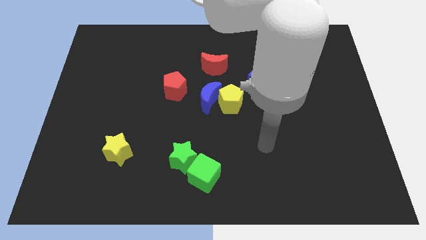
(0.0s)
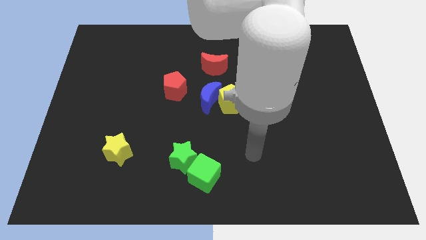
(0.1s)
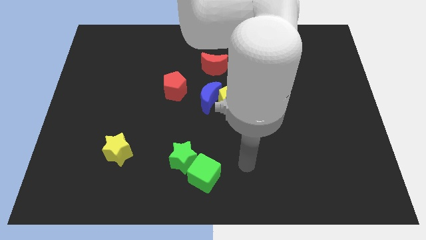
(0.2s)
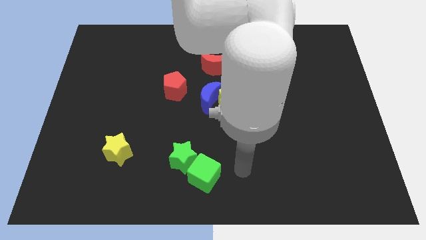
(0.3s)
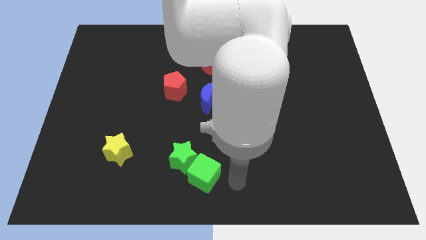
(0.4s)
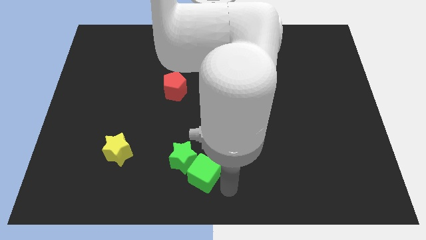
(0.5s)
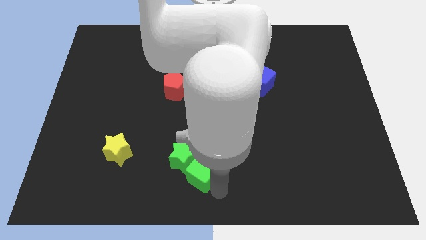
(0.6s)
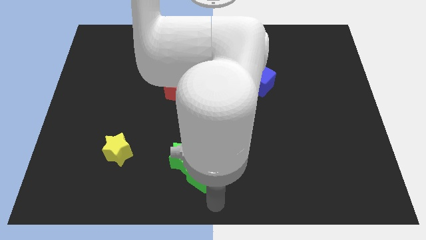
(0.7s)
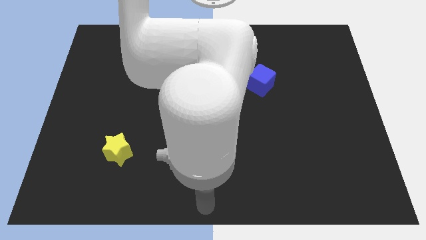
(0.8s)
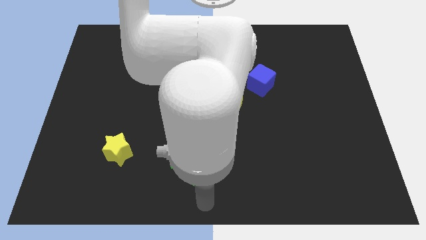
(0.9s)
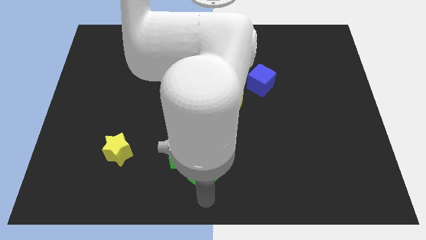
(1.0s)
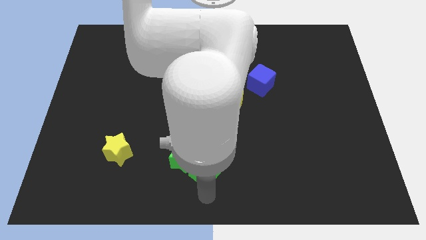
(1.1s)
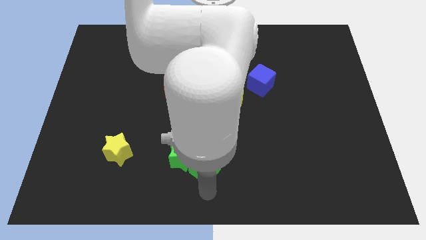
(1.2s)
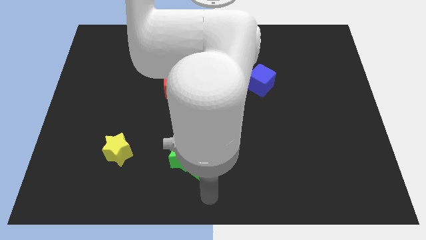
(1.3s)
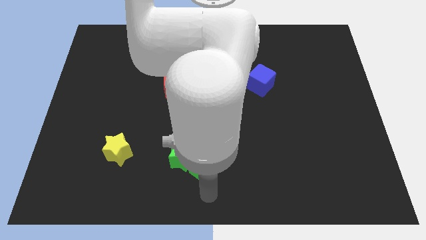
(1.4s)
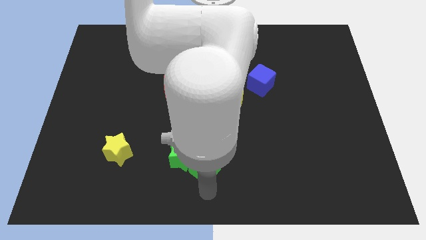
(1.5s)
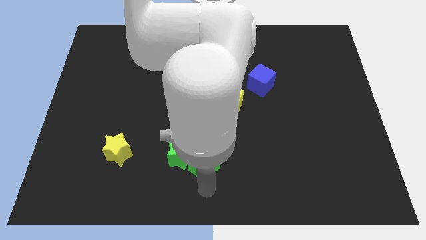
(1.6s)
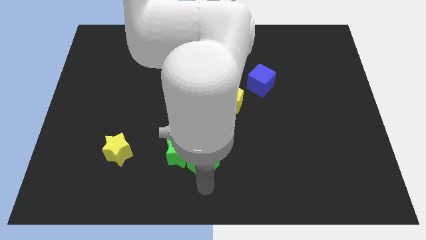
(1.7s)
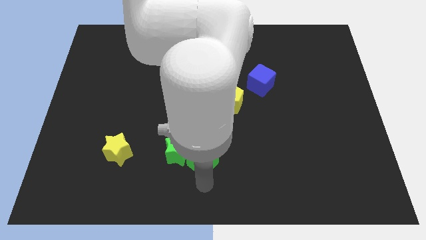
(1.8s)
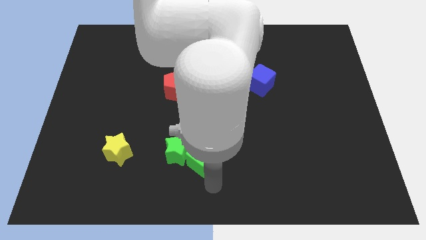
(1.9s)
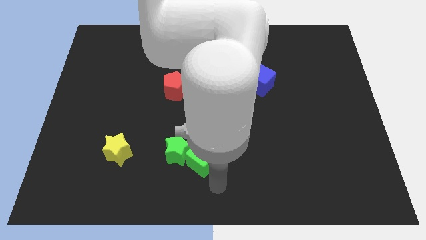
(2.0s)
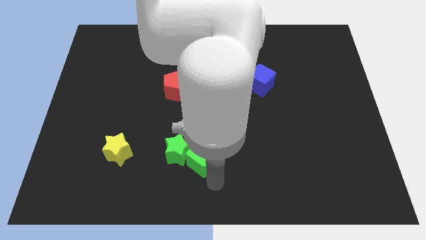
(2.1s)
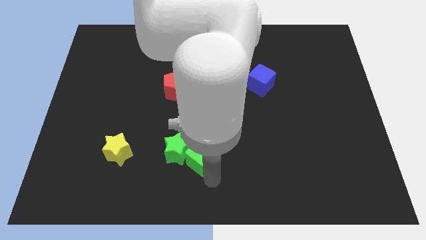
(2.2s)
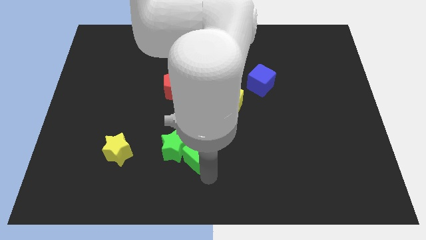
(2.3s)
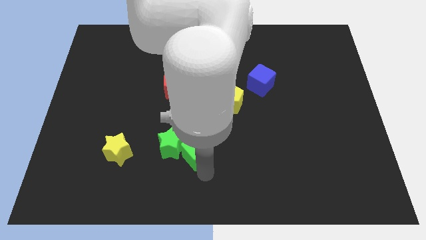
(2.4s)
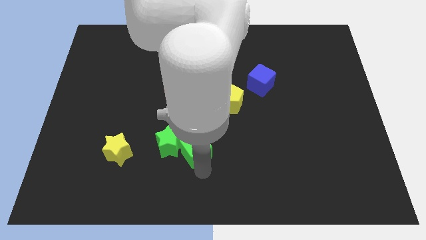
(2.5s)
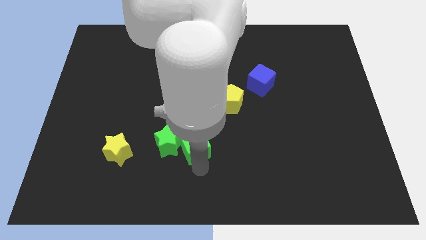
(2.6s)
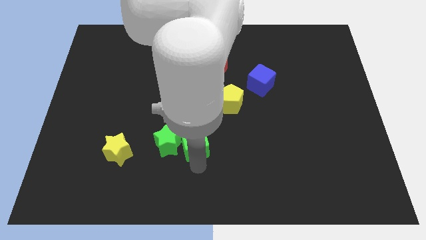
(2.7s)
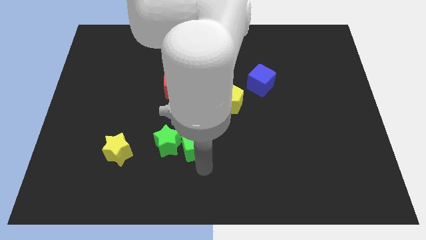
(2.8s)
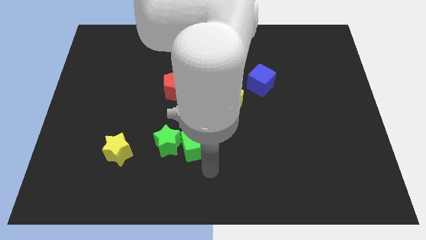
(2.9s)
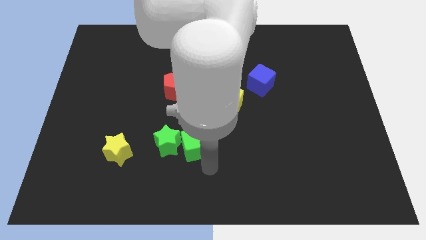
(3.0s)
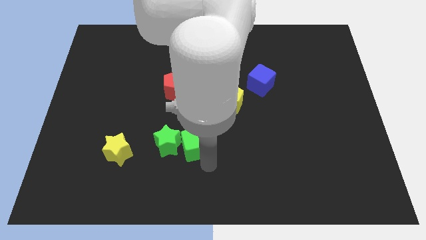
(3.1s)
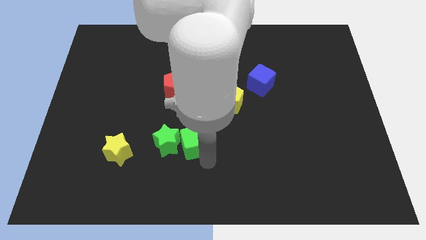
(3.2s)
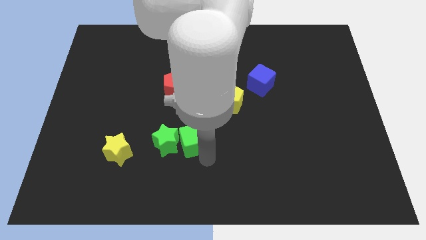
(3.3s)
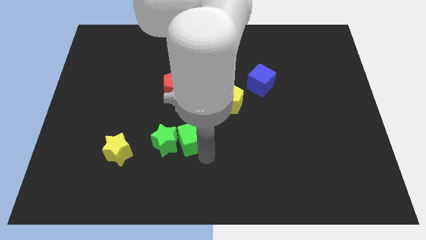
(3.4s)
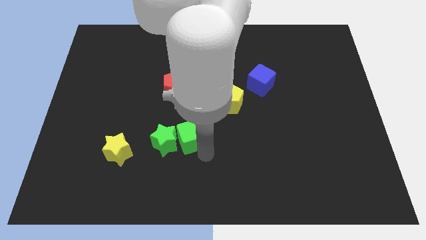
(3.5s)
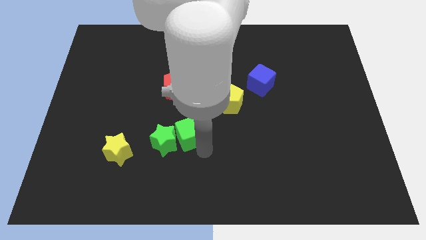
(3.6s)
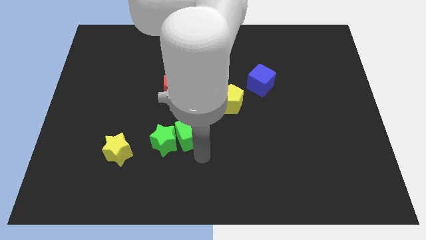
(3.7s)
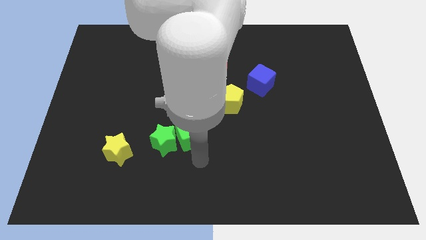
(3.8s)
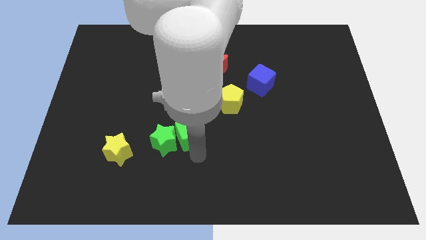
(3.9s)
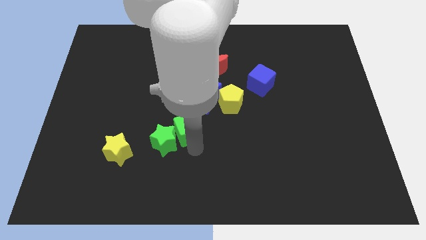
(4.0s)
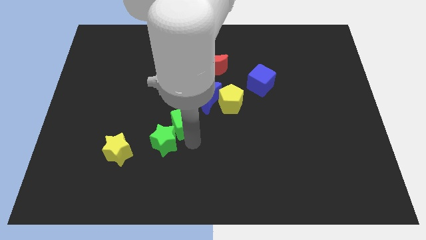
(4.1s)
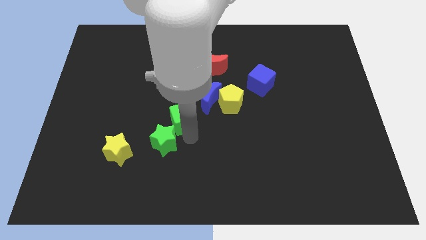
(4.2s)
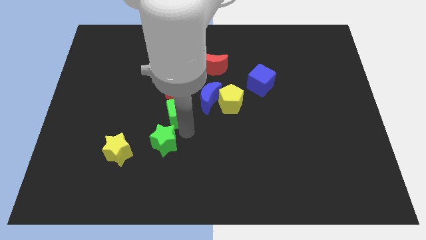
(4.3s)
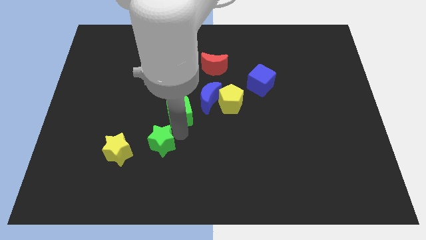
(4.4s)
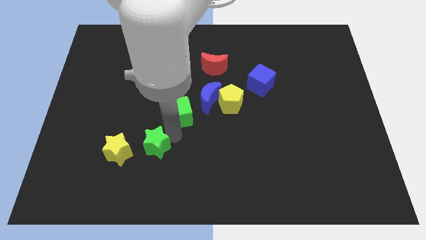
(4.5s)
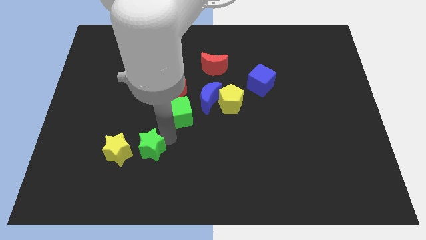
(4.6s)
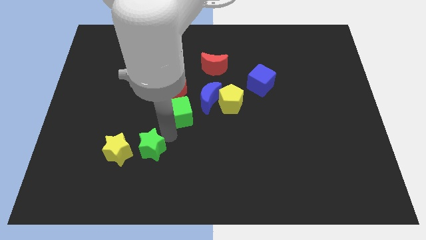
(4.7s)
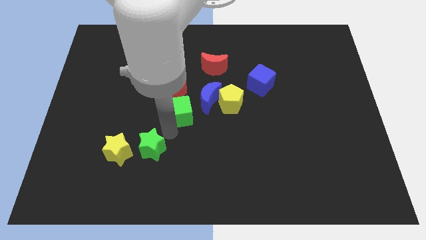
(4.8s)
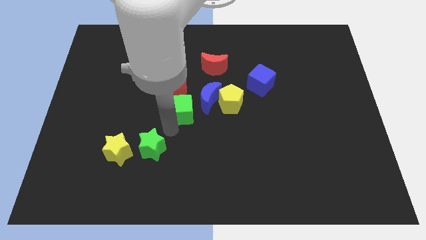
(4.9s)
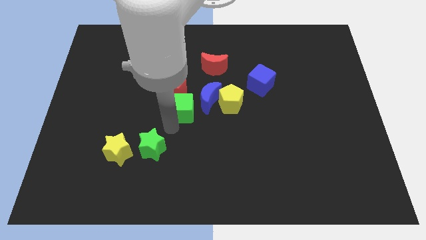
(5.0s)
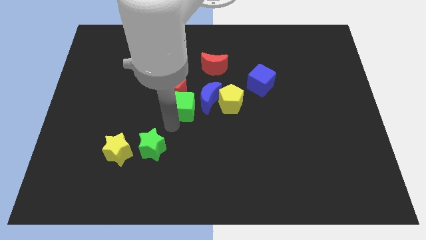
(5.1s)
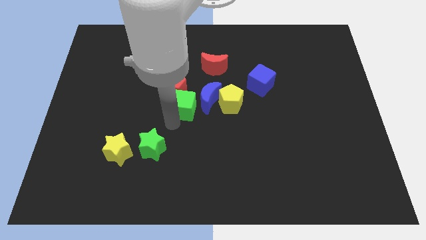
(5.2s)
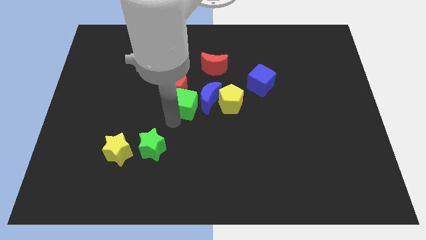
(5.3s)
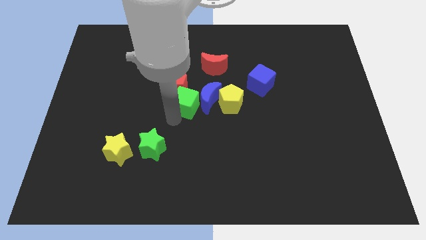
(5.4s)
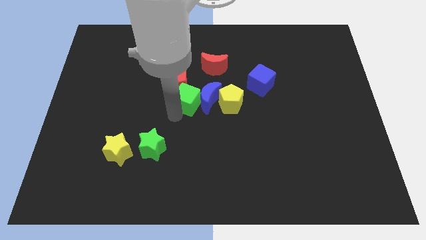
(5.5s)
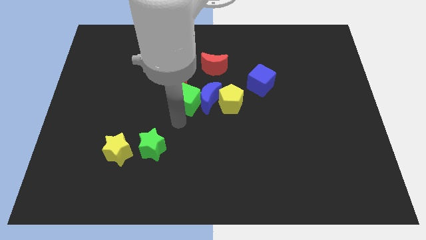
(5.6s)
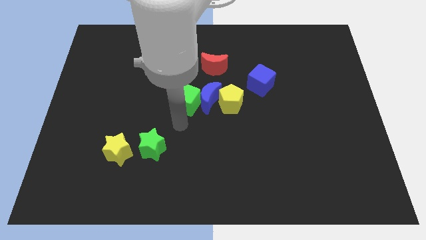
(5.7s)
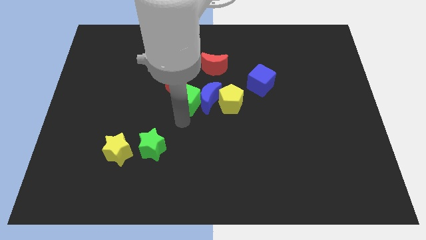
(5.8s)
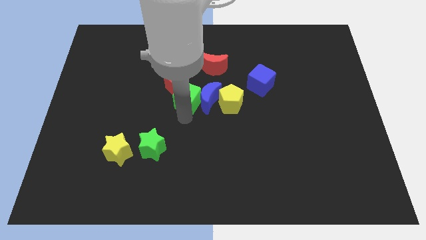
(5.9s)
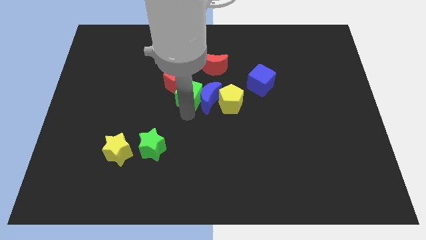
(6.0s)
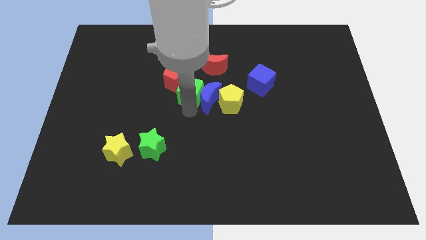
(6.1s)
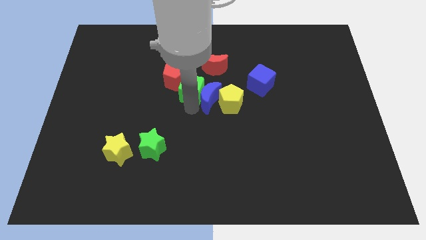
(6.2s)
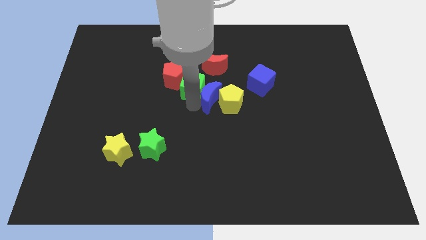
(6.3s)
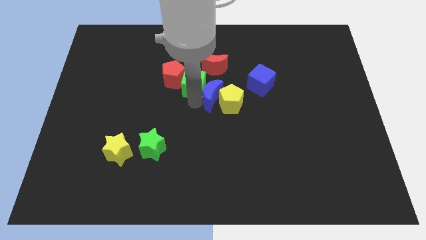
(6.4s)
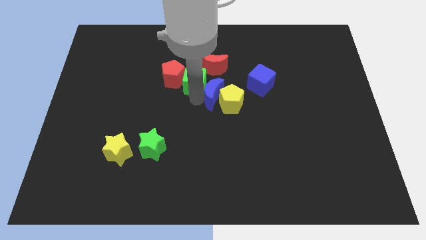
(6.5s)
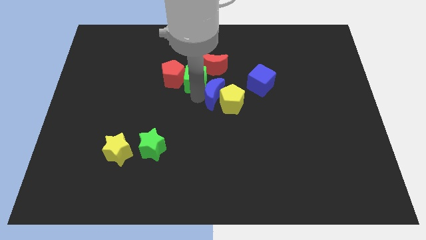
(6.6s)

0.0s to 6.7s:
slide the green cube diagonally up and to the right of the red pentagon

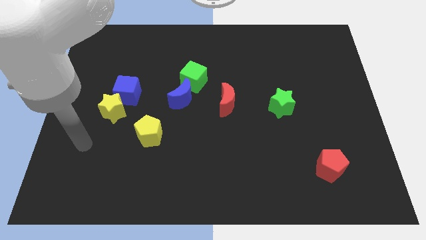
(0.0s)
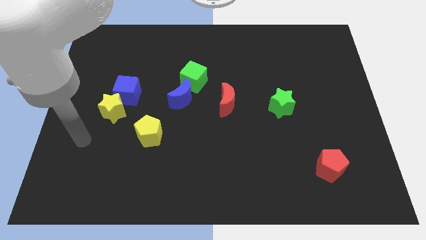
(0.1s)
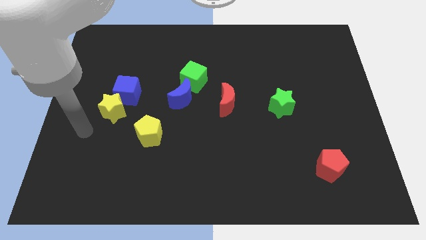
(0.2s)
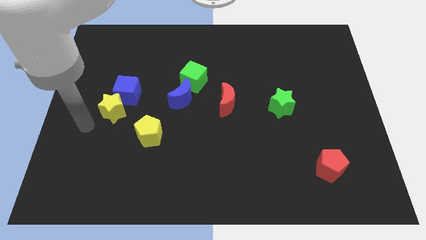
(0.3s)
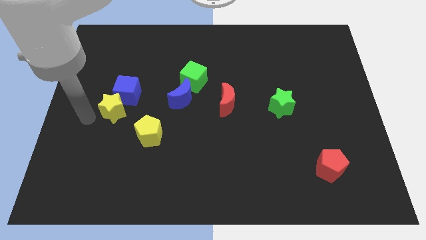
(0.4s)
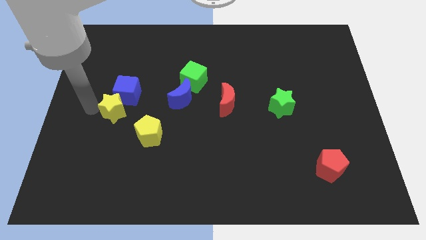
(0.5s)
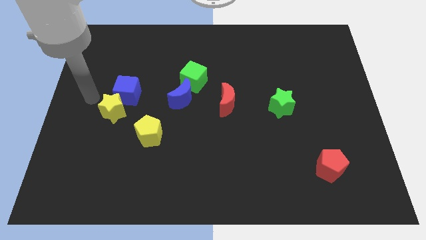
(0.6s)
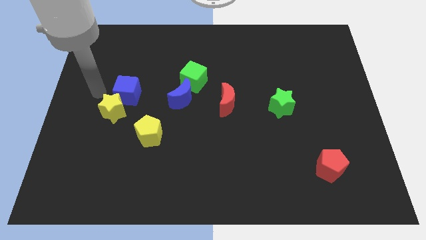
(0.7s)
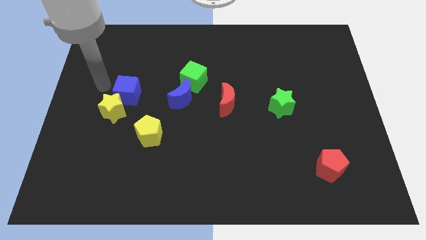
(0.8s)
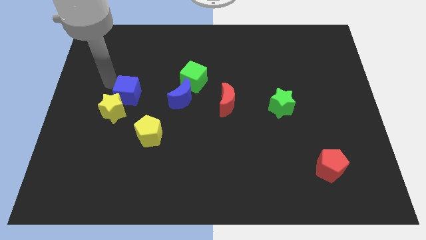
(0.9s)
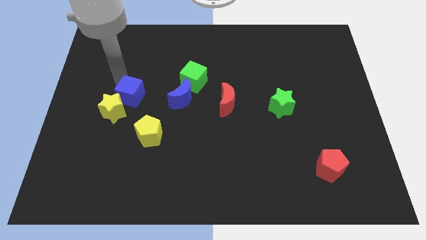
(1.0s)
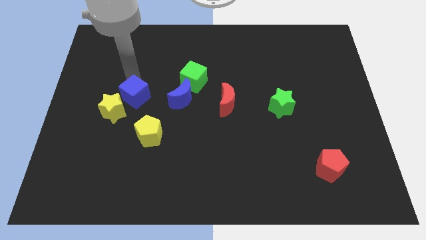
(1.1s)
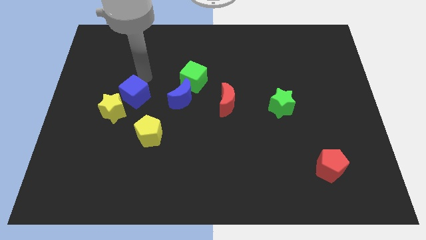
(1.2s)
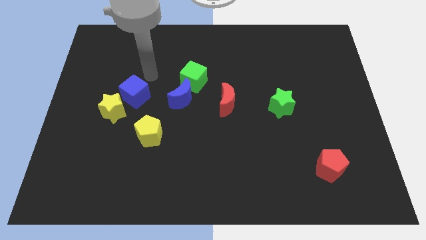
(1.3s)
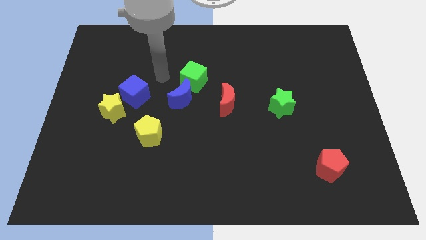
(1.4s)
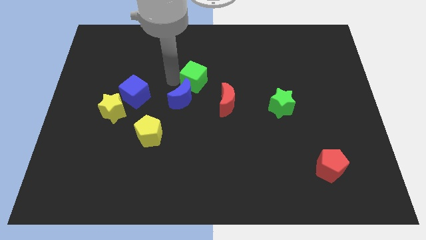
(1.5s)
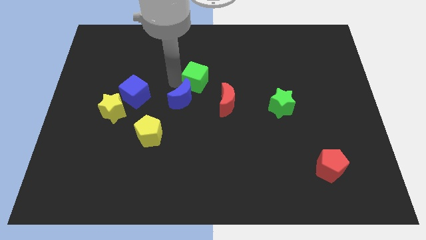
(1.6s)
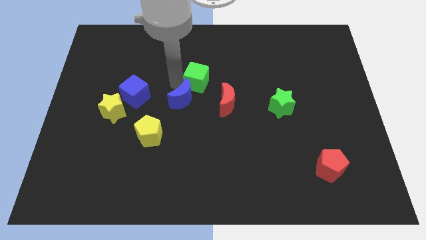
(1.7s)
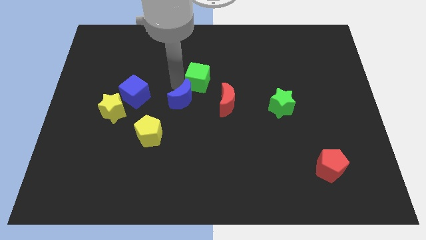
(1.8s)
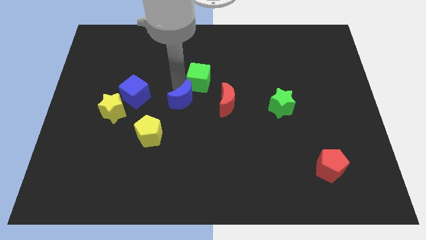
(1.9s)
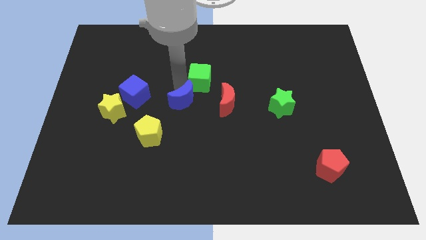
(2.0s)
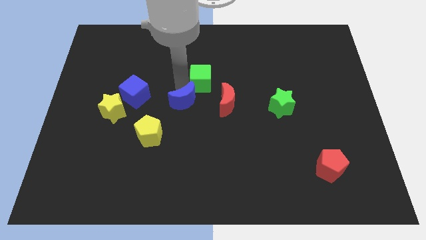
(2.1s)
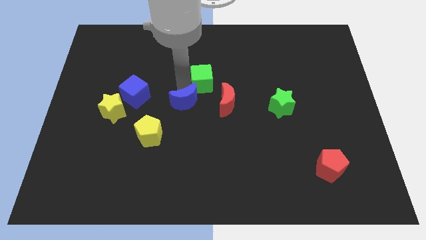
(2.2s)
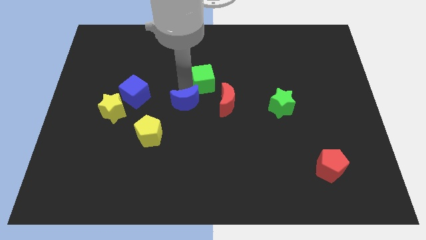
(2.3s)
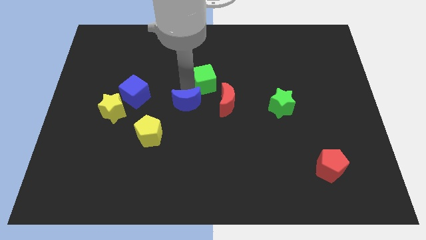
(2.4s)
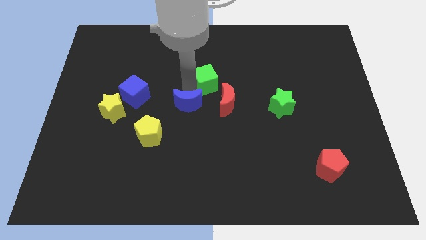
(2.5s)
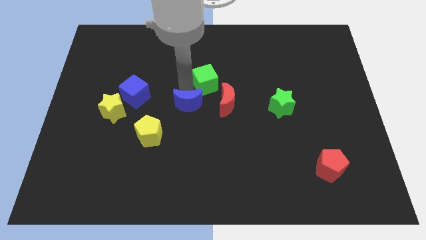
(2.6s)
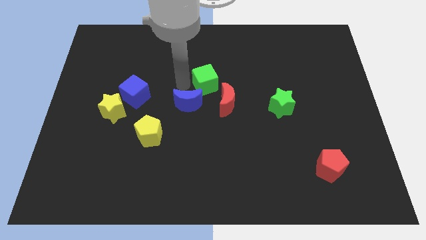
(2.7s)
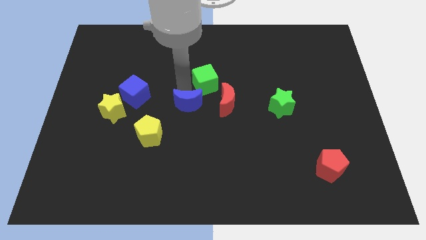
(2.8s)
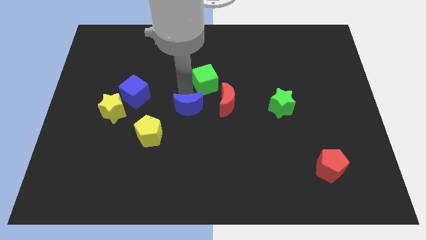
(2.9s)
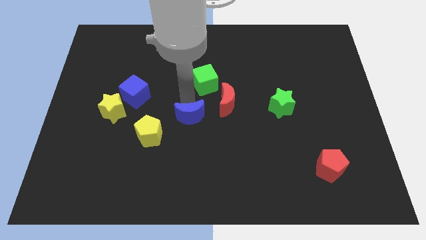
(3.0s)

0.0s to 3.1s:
move the blue moon right of the yellow pentagon
